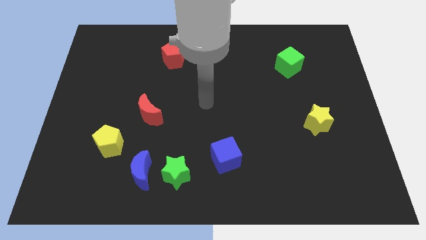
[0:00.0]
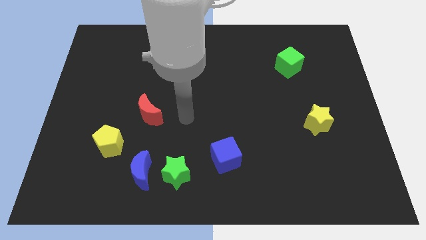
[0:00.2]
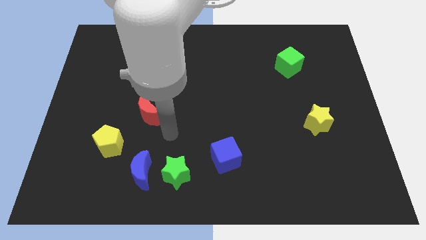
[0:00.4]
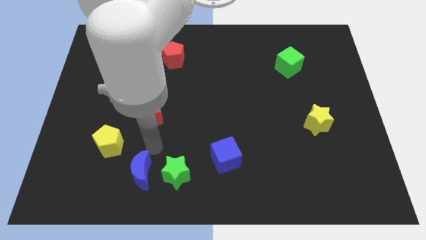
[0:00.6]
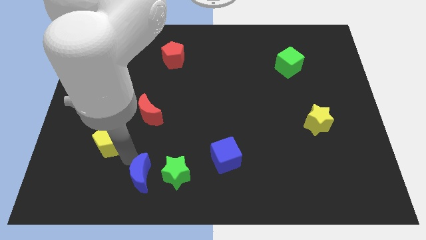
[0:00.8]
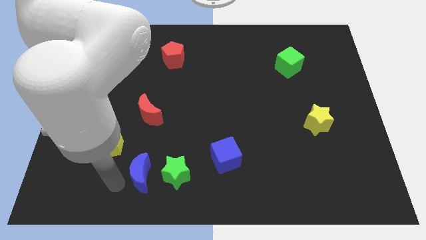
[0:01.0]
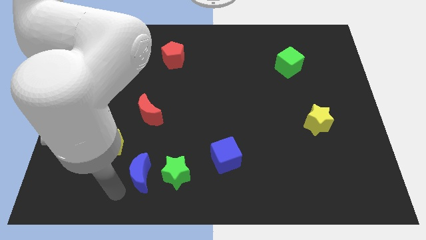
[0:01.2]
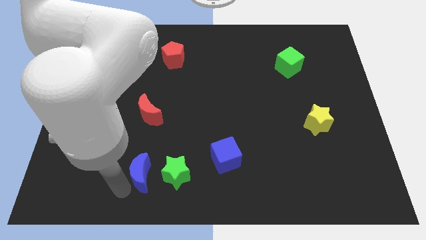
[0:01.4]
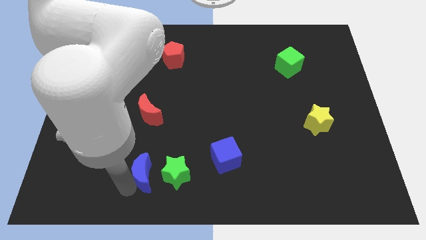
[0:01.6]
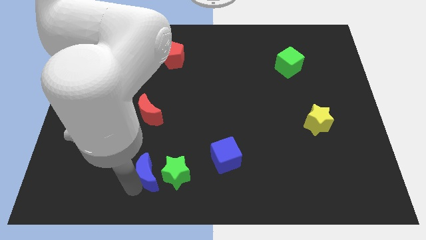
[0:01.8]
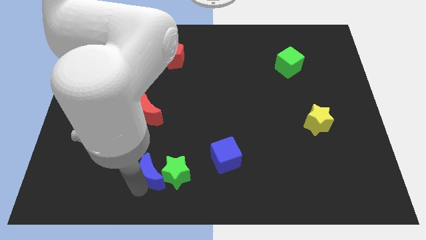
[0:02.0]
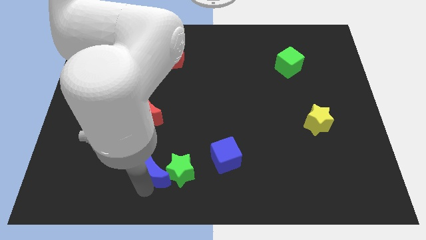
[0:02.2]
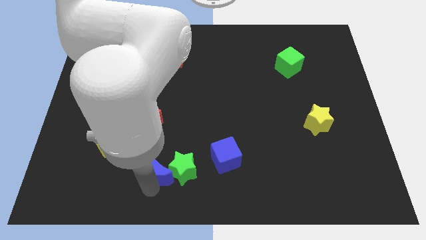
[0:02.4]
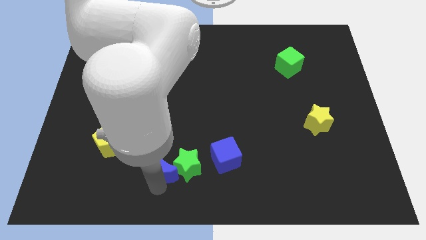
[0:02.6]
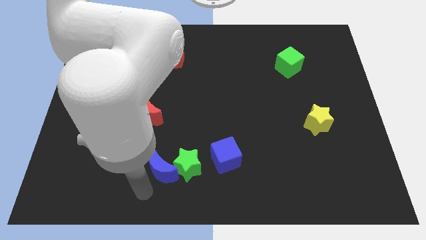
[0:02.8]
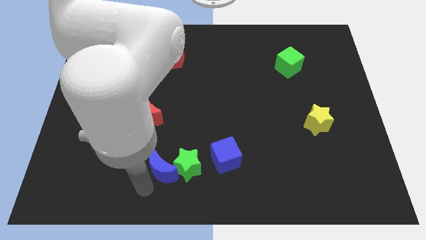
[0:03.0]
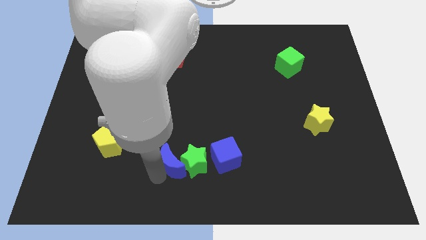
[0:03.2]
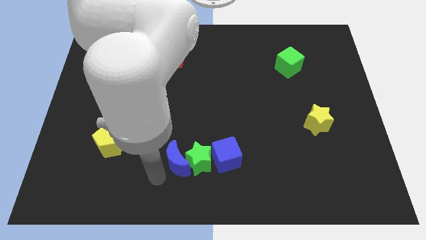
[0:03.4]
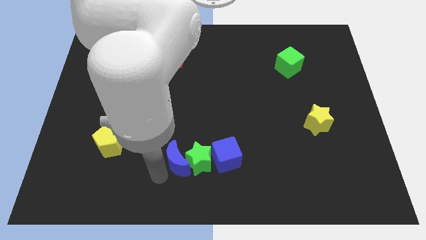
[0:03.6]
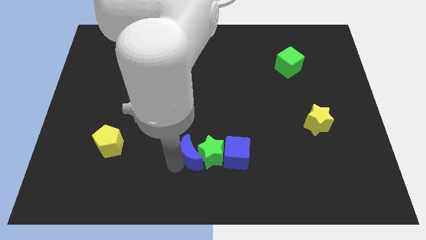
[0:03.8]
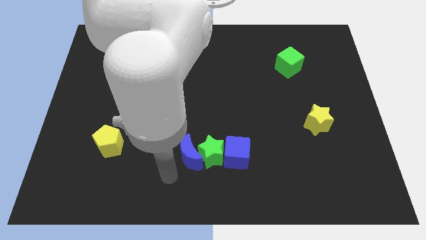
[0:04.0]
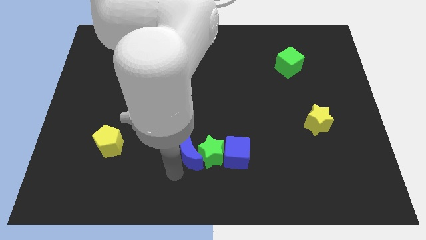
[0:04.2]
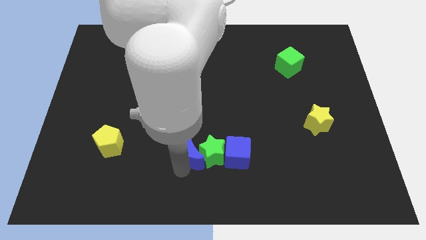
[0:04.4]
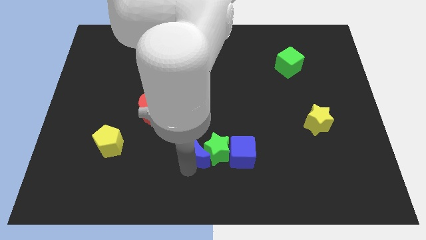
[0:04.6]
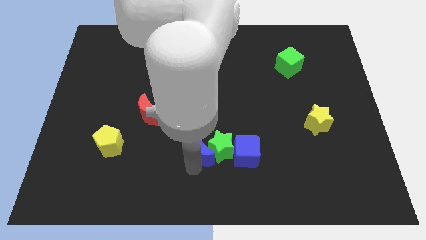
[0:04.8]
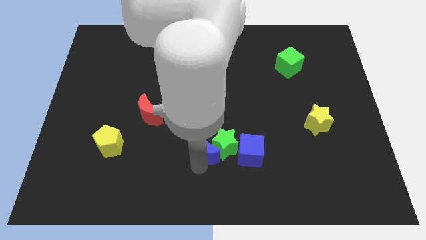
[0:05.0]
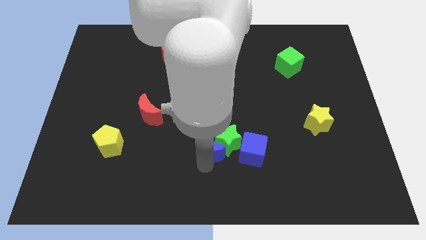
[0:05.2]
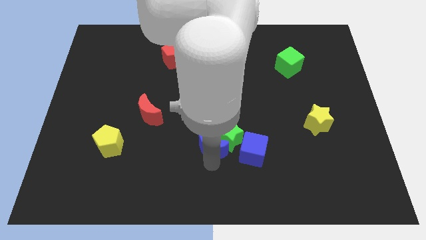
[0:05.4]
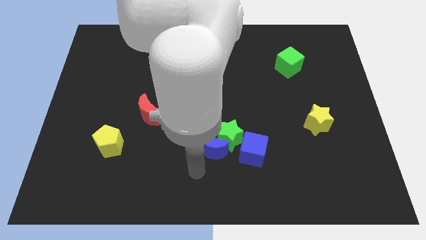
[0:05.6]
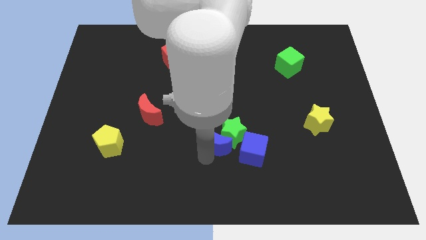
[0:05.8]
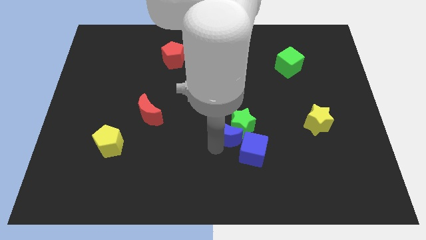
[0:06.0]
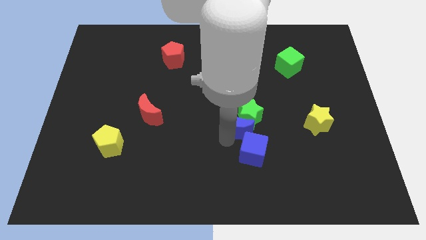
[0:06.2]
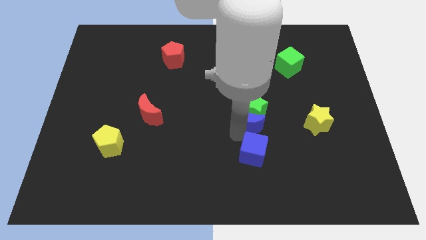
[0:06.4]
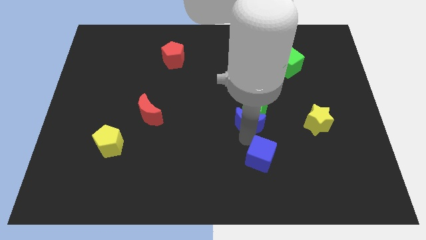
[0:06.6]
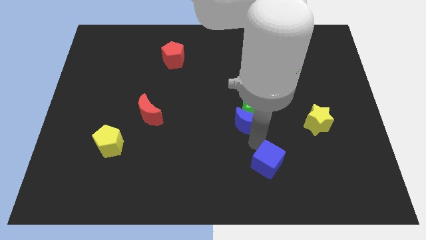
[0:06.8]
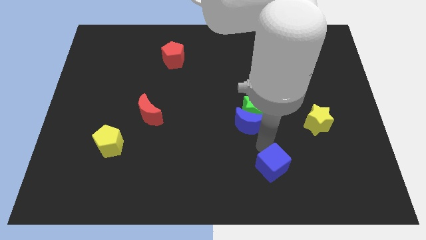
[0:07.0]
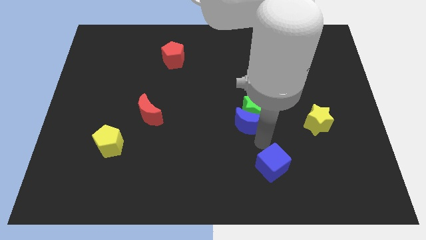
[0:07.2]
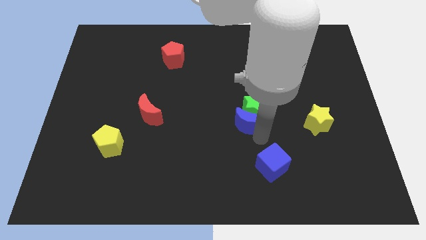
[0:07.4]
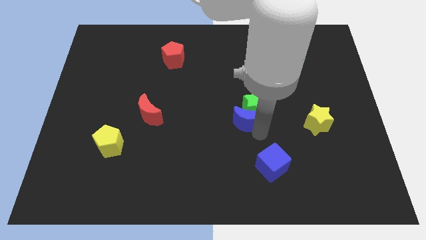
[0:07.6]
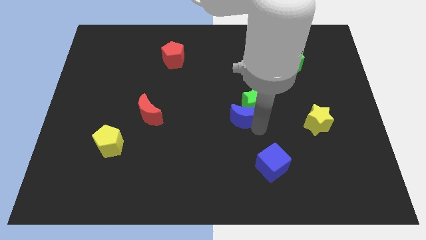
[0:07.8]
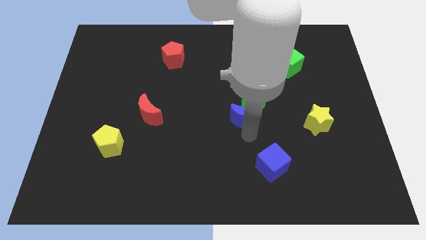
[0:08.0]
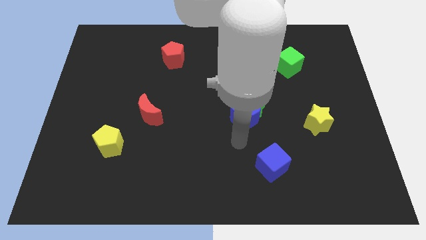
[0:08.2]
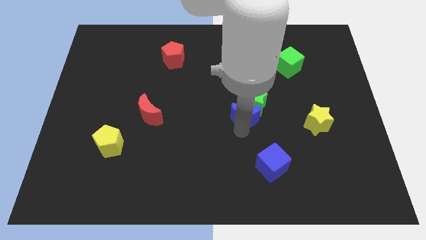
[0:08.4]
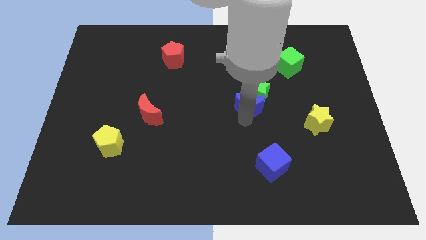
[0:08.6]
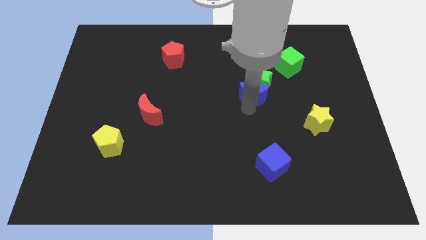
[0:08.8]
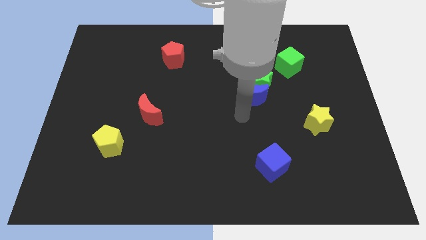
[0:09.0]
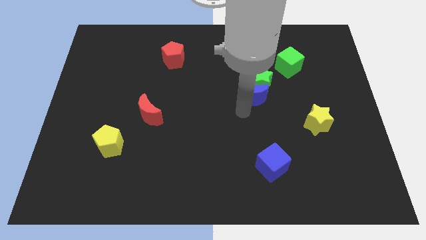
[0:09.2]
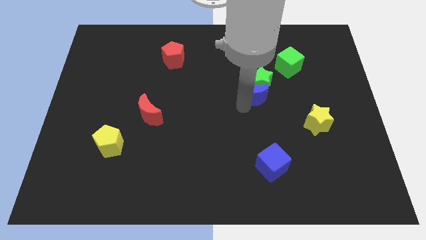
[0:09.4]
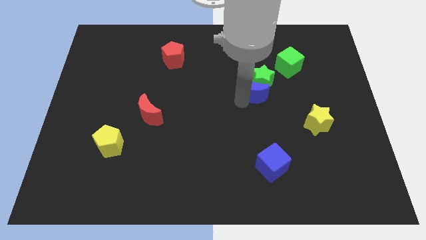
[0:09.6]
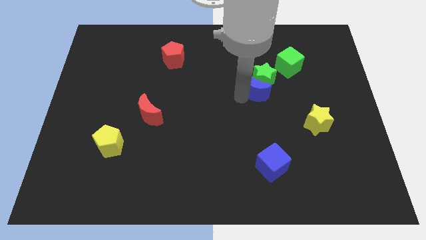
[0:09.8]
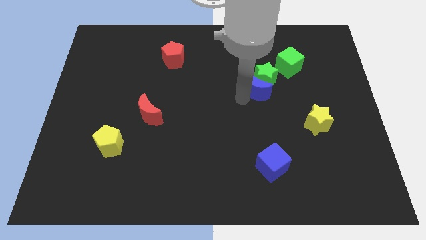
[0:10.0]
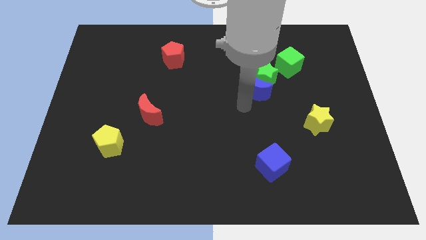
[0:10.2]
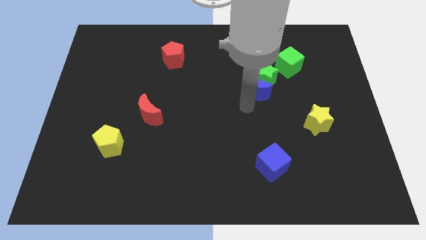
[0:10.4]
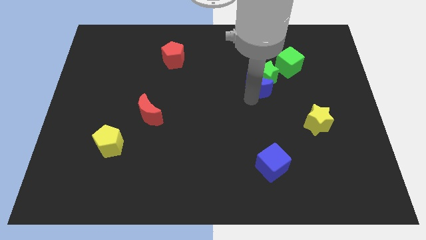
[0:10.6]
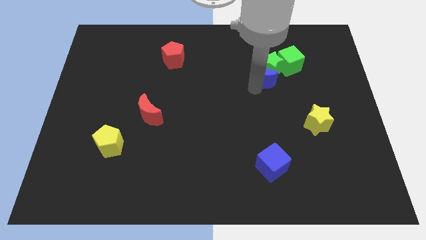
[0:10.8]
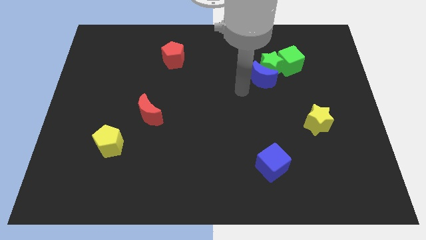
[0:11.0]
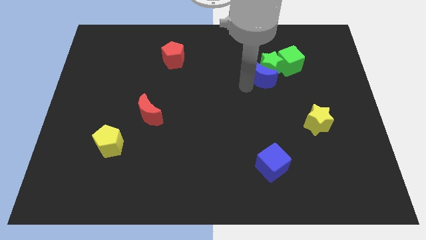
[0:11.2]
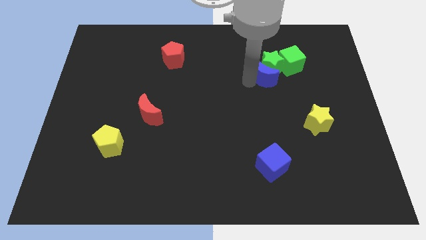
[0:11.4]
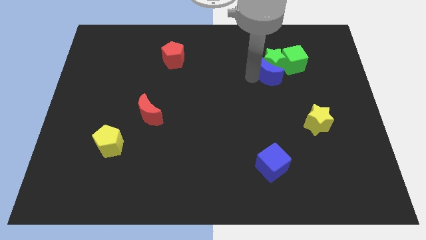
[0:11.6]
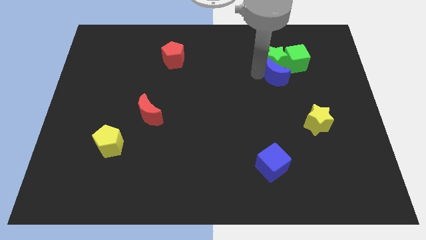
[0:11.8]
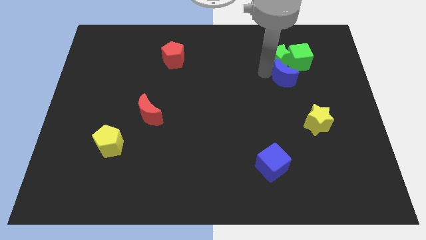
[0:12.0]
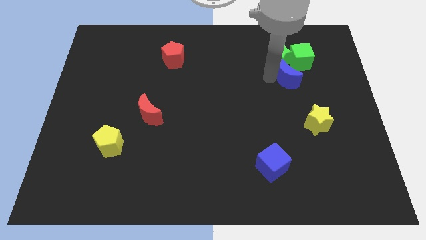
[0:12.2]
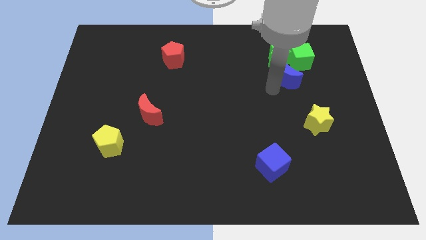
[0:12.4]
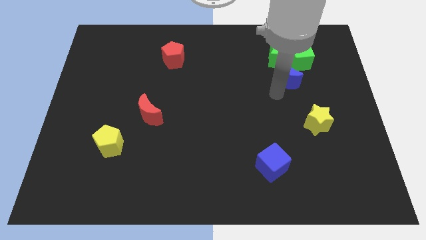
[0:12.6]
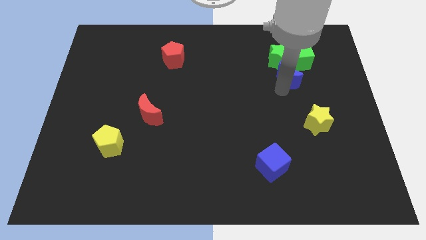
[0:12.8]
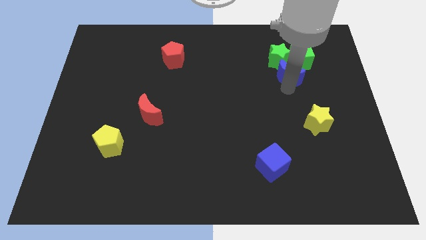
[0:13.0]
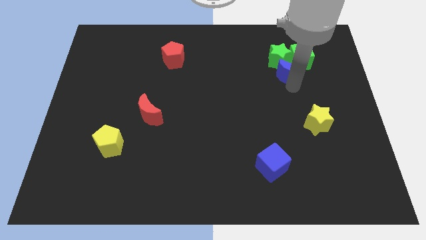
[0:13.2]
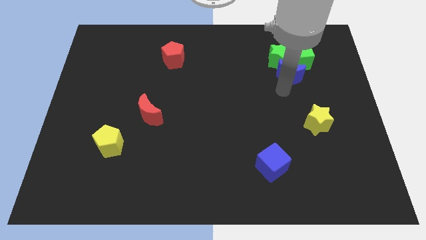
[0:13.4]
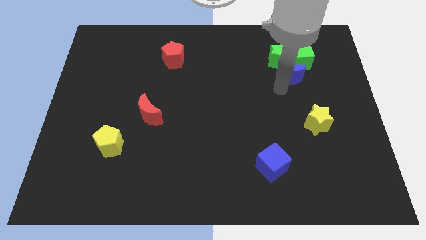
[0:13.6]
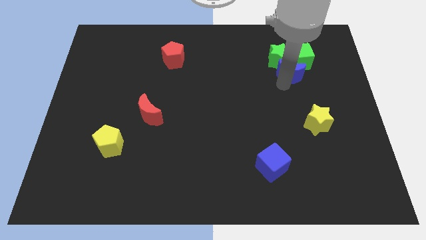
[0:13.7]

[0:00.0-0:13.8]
move the blue moon towards the green cube
